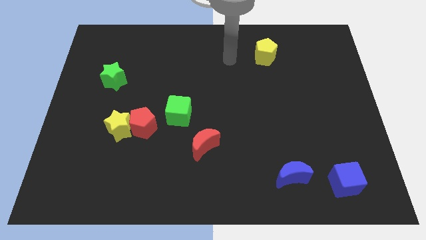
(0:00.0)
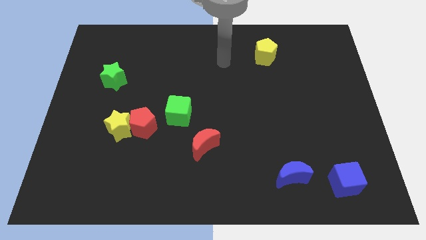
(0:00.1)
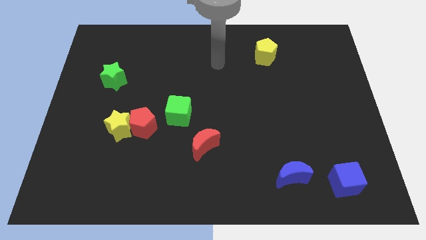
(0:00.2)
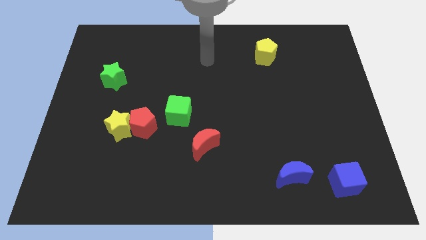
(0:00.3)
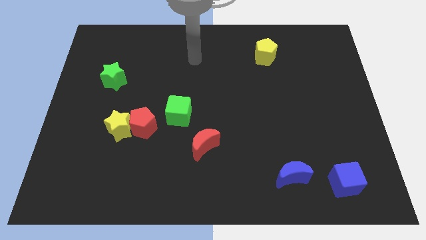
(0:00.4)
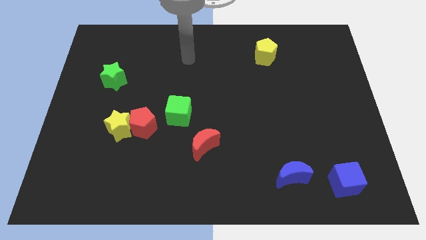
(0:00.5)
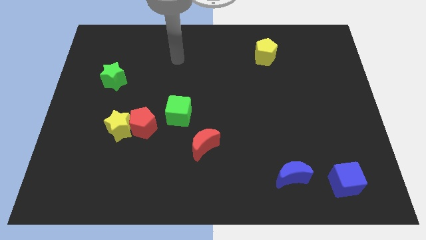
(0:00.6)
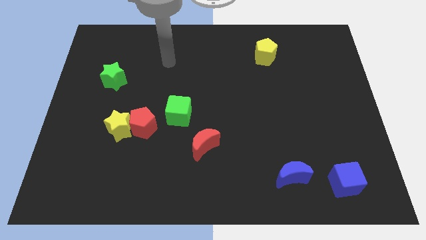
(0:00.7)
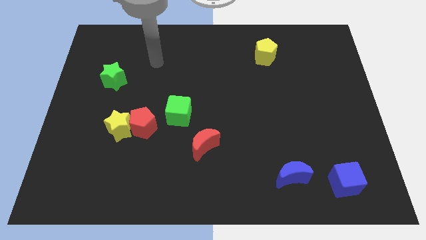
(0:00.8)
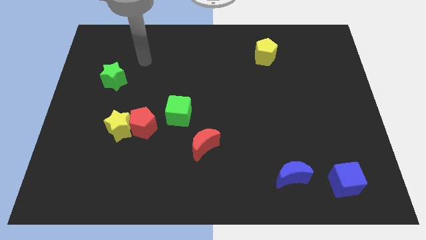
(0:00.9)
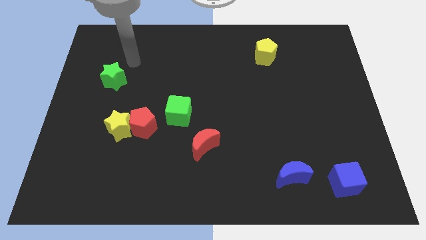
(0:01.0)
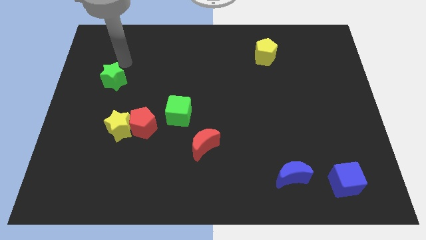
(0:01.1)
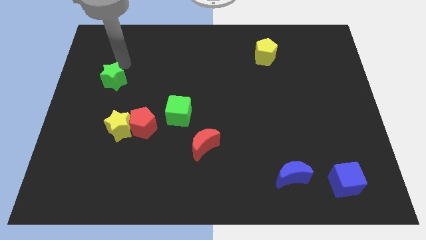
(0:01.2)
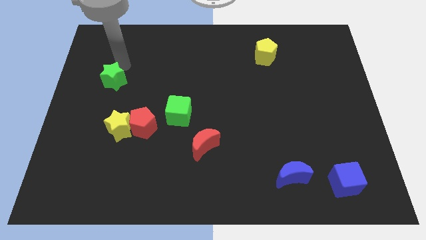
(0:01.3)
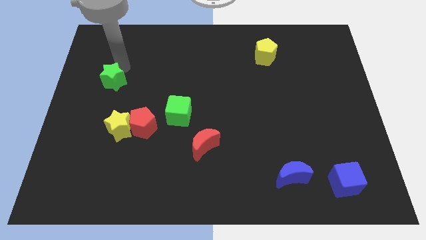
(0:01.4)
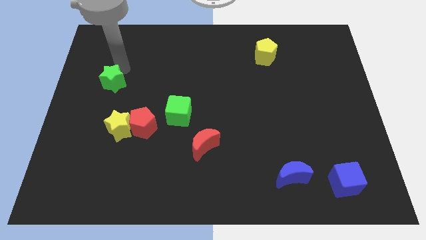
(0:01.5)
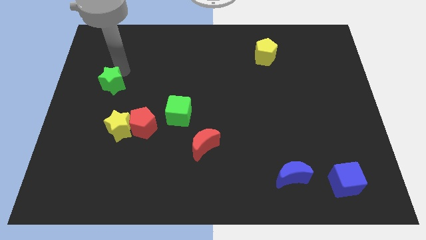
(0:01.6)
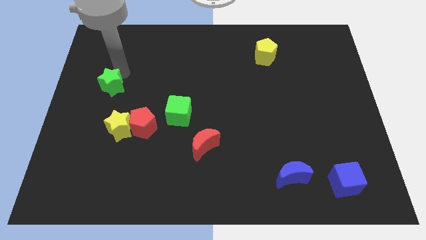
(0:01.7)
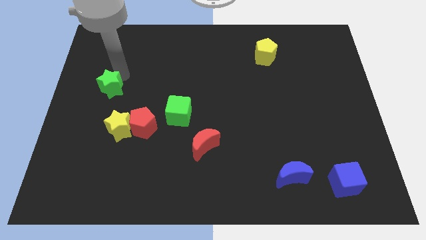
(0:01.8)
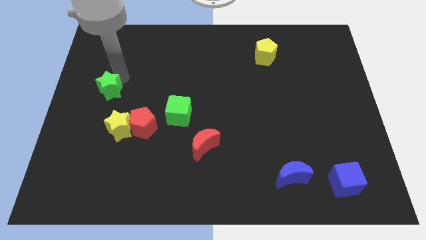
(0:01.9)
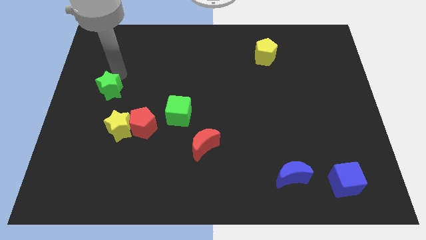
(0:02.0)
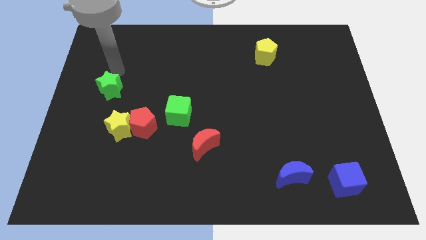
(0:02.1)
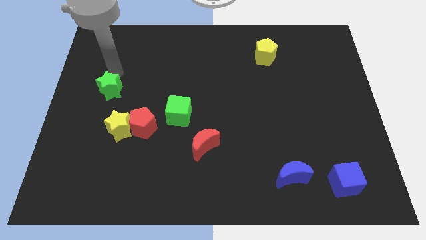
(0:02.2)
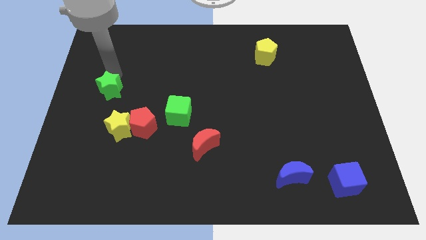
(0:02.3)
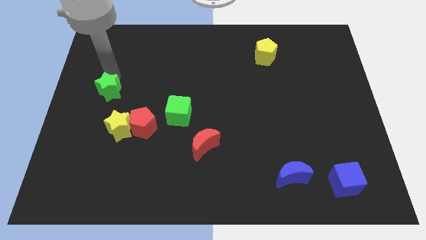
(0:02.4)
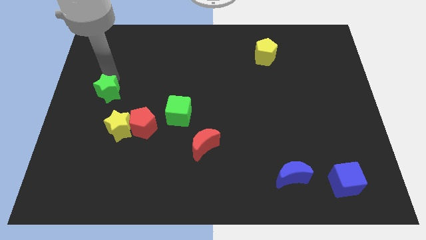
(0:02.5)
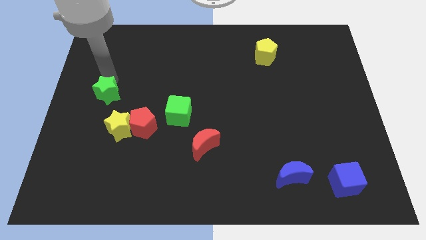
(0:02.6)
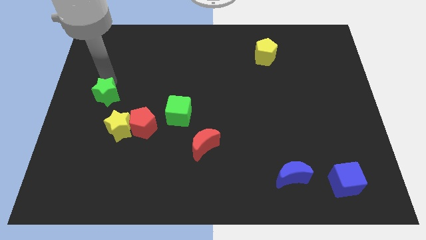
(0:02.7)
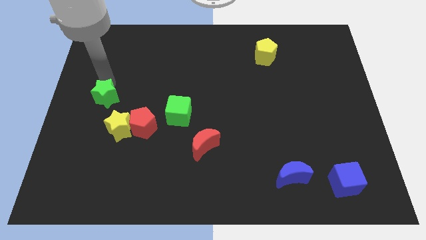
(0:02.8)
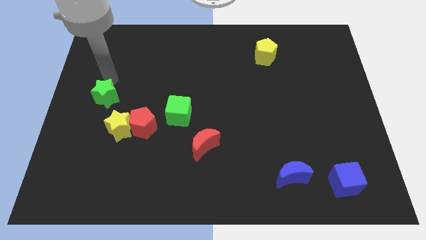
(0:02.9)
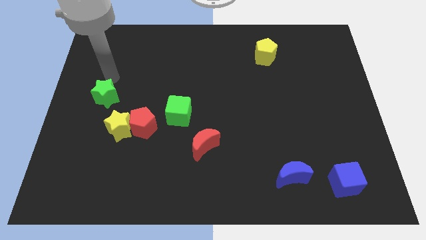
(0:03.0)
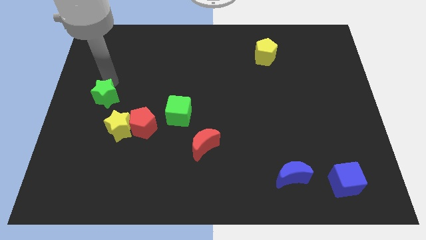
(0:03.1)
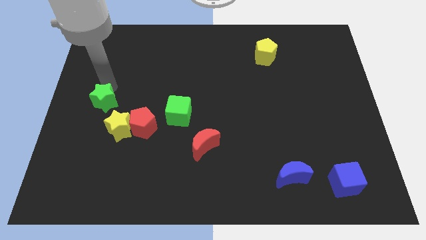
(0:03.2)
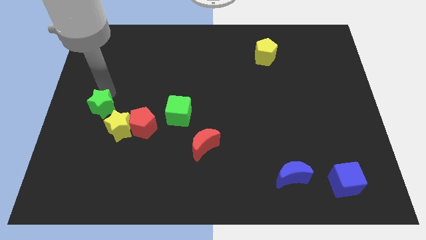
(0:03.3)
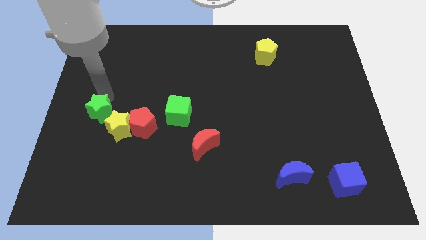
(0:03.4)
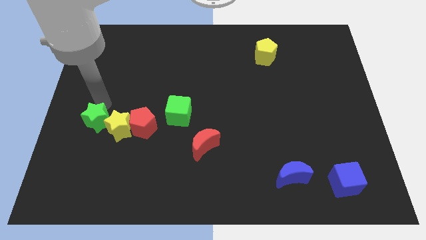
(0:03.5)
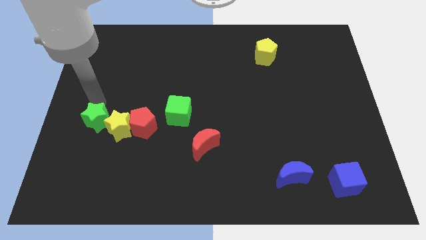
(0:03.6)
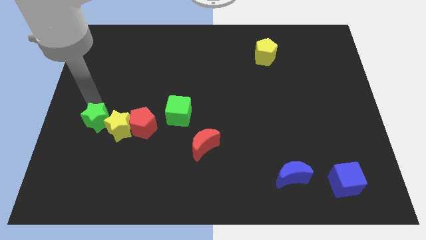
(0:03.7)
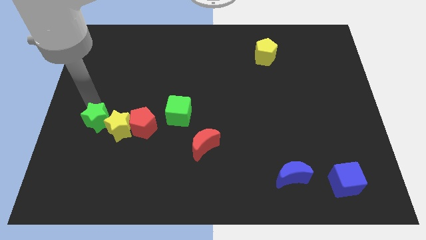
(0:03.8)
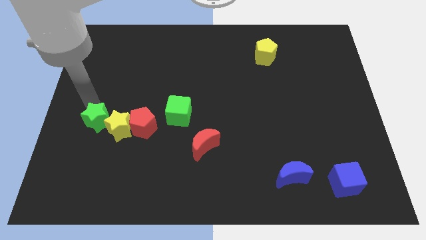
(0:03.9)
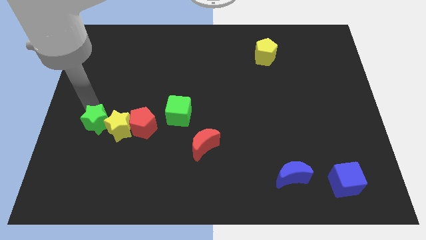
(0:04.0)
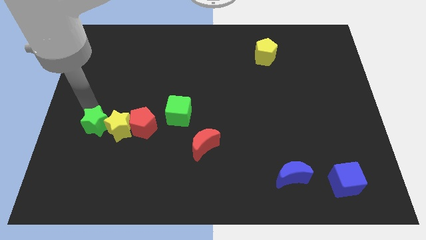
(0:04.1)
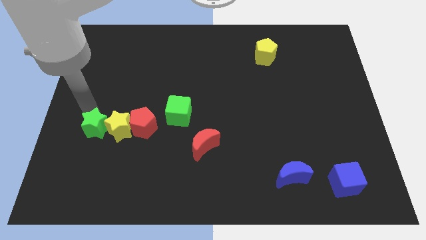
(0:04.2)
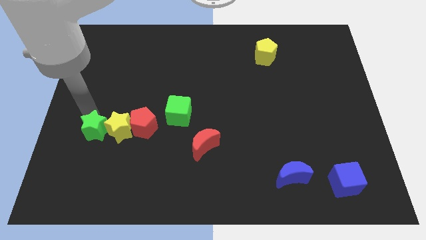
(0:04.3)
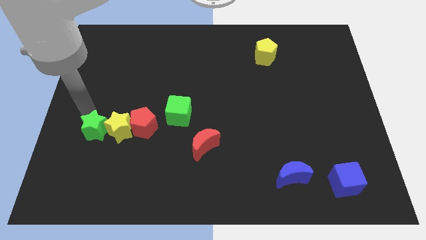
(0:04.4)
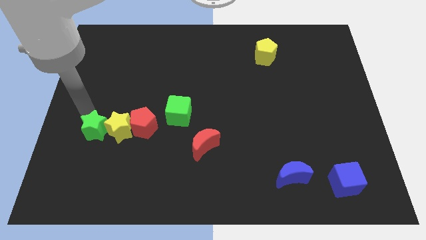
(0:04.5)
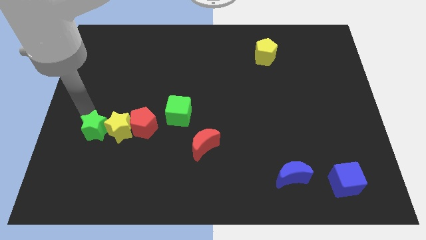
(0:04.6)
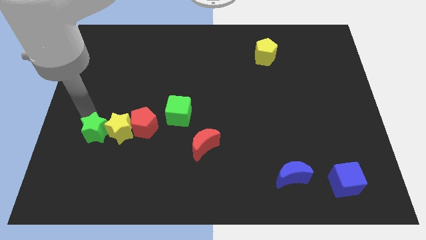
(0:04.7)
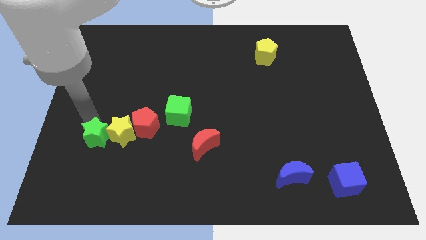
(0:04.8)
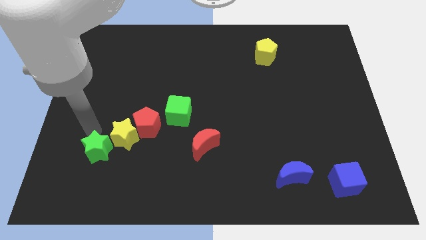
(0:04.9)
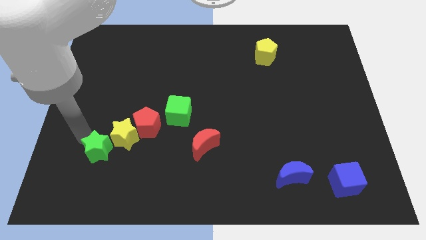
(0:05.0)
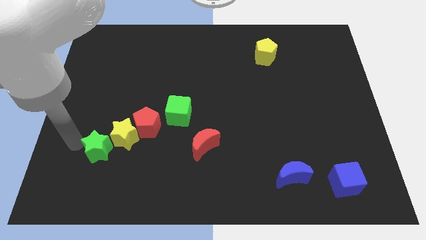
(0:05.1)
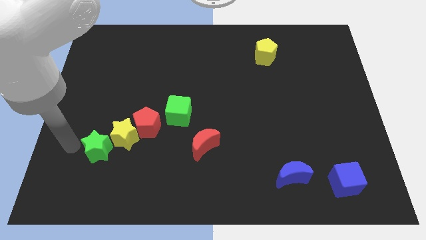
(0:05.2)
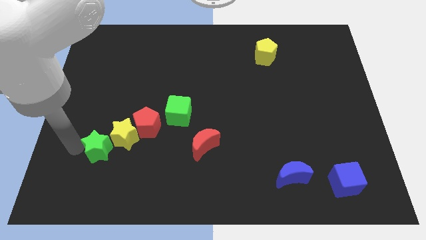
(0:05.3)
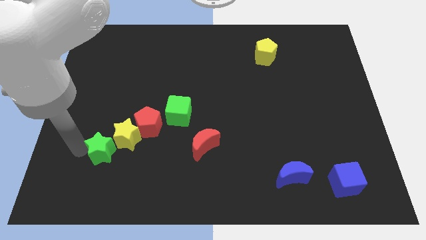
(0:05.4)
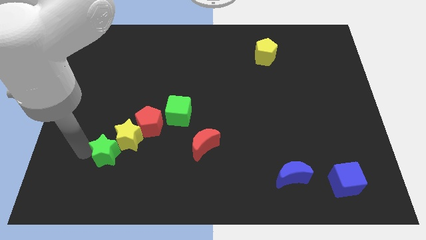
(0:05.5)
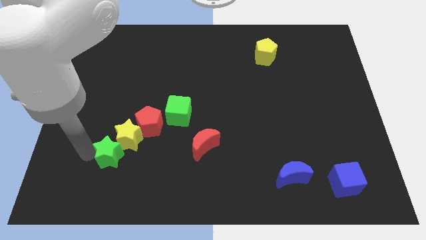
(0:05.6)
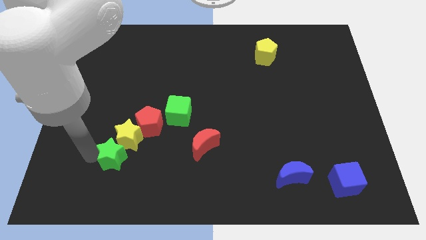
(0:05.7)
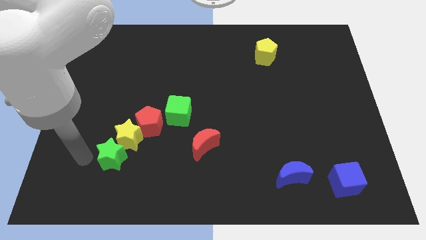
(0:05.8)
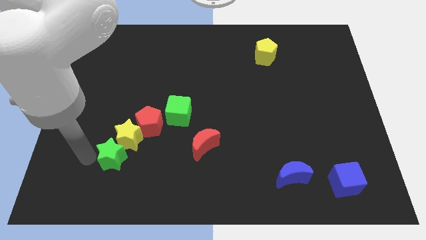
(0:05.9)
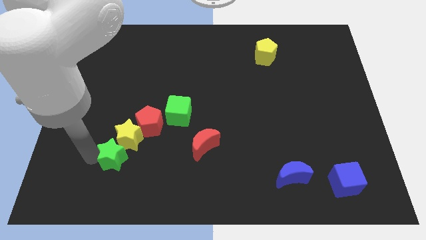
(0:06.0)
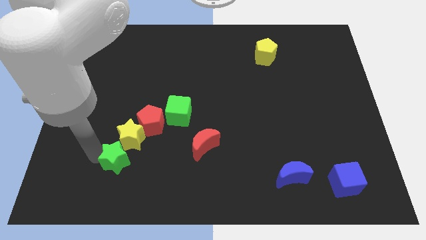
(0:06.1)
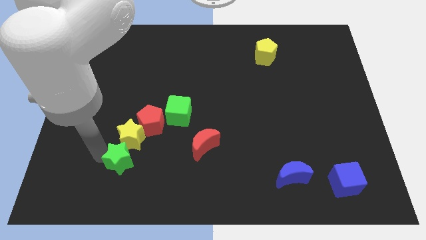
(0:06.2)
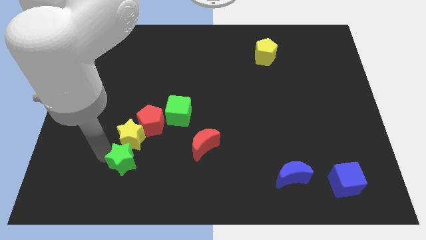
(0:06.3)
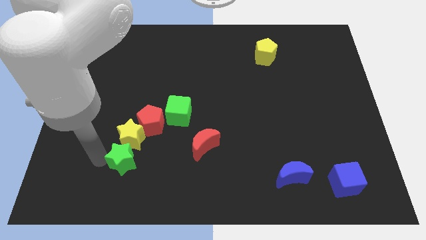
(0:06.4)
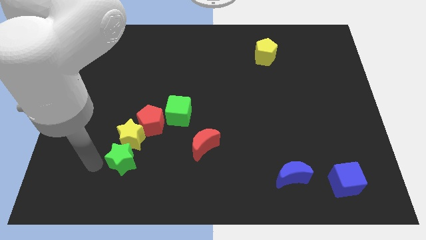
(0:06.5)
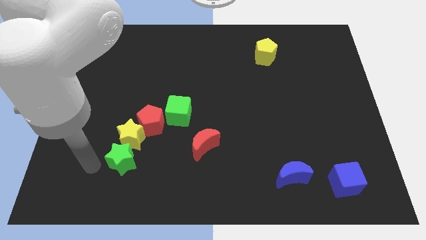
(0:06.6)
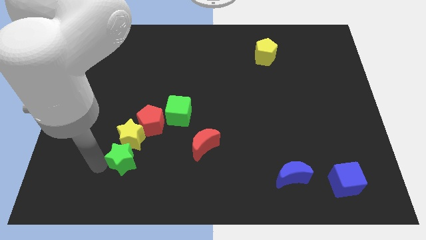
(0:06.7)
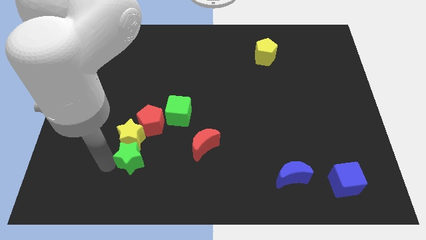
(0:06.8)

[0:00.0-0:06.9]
slide the green star diagonally down and to the right of the yellow star
